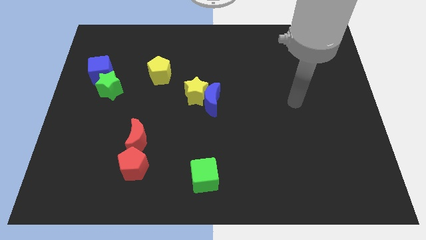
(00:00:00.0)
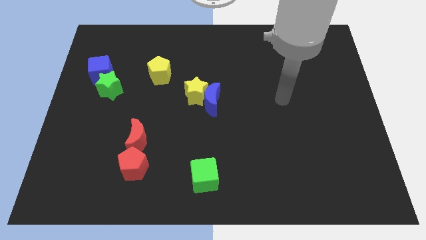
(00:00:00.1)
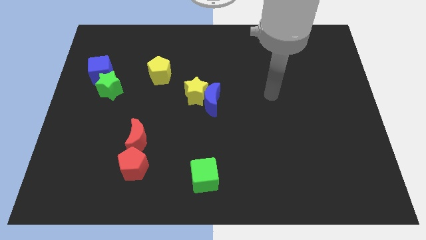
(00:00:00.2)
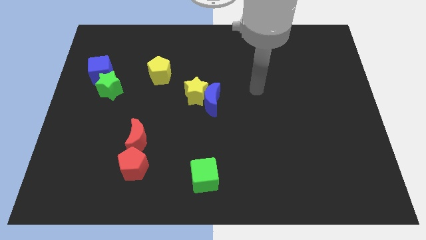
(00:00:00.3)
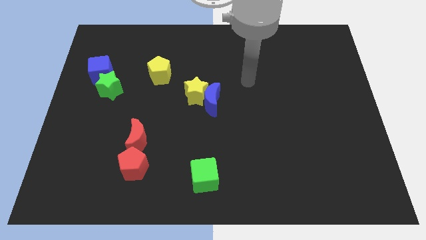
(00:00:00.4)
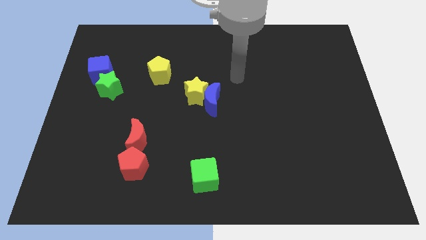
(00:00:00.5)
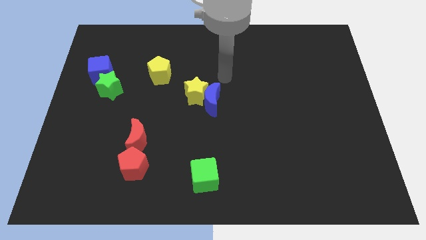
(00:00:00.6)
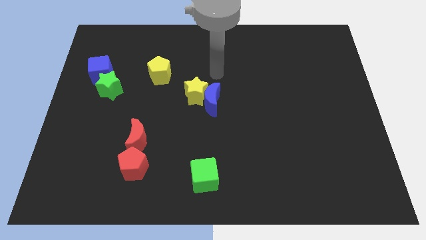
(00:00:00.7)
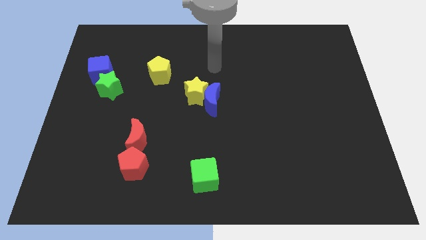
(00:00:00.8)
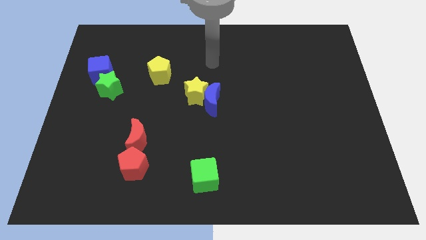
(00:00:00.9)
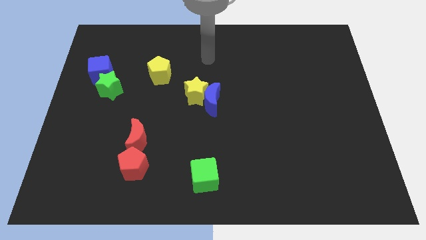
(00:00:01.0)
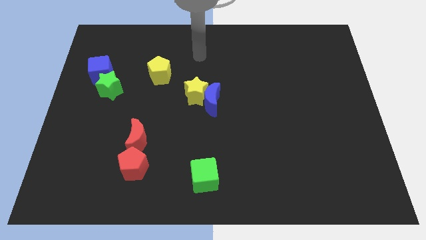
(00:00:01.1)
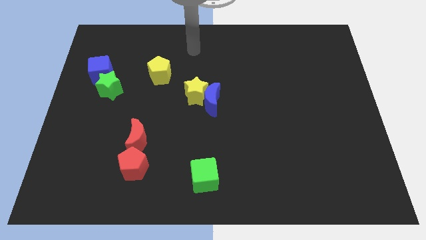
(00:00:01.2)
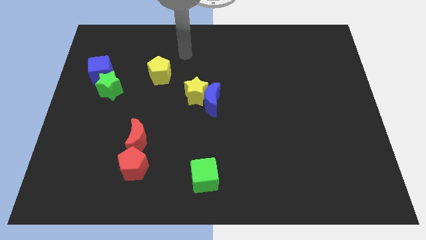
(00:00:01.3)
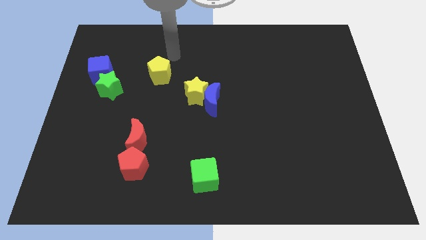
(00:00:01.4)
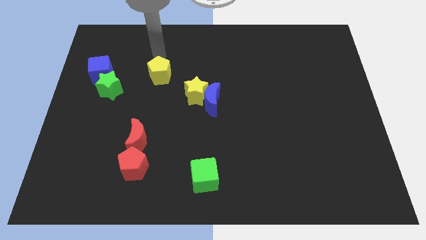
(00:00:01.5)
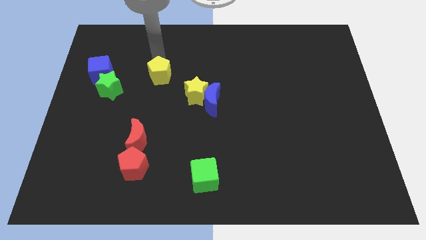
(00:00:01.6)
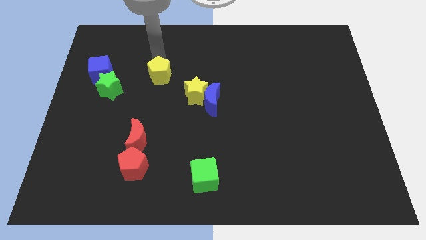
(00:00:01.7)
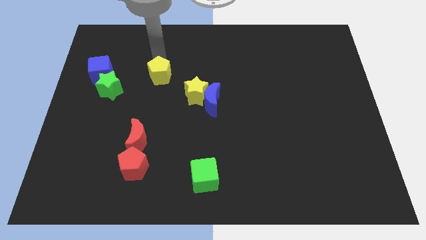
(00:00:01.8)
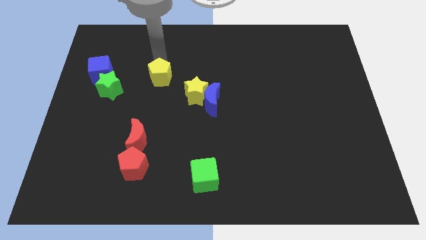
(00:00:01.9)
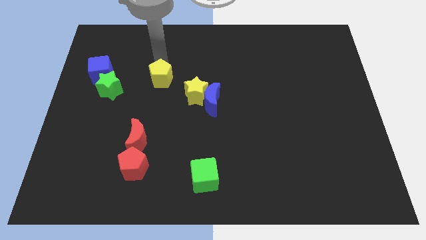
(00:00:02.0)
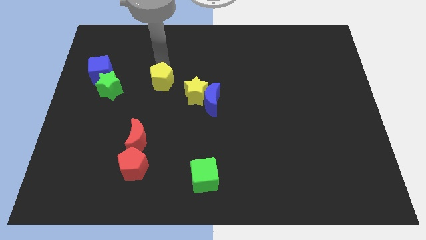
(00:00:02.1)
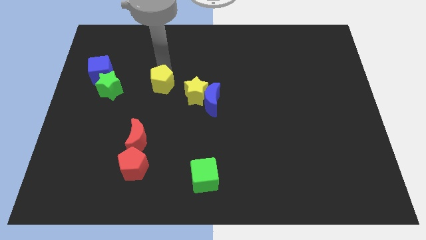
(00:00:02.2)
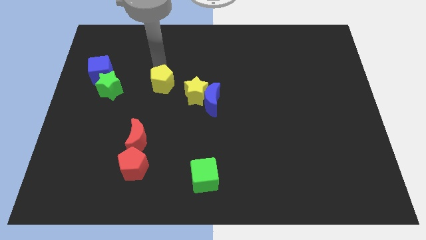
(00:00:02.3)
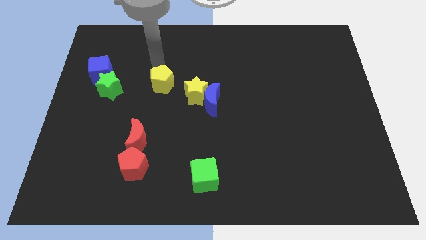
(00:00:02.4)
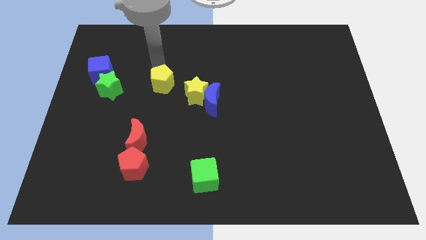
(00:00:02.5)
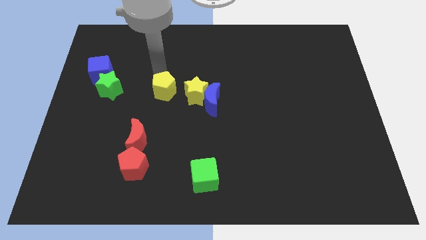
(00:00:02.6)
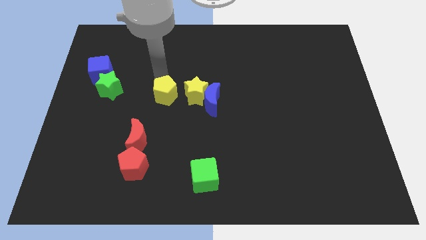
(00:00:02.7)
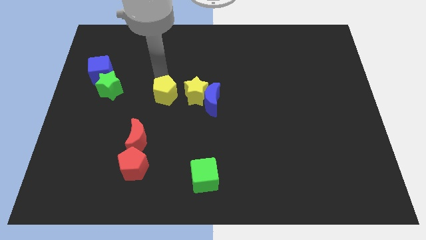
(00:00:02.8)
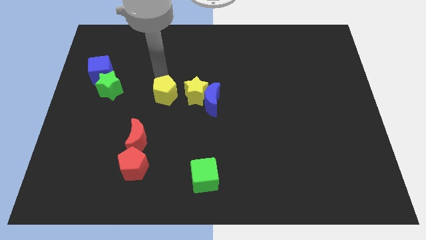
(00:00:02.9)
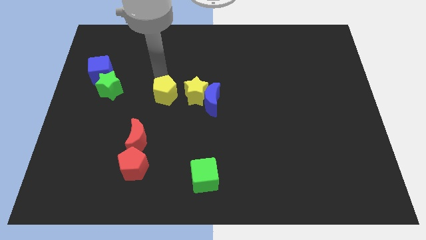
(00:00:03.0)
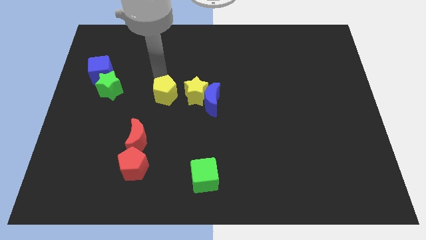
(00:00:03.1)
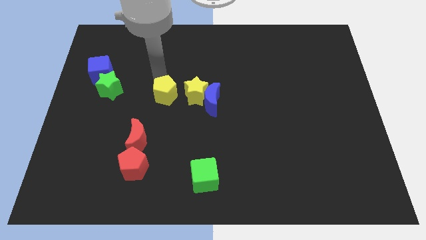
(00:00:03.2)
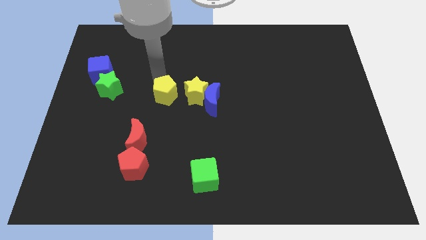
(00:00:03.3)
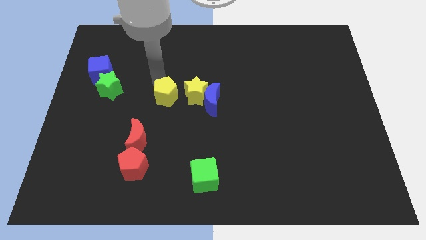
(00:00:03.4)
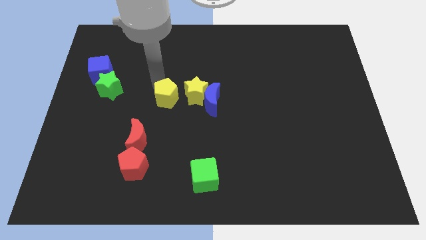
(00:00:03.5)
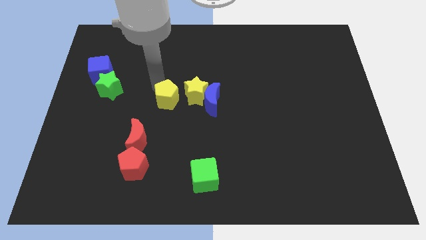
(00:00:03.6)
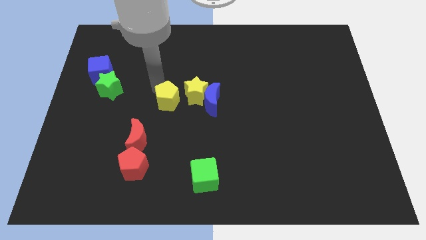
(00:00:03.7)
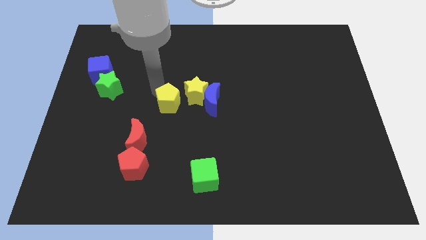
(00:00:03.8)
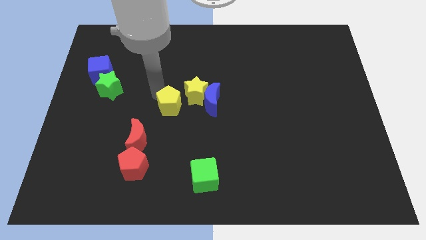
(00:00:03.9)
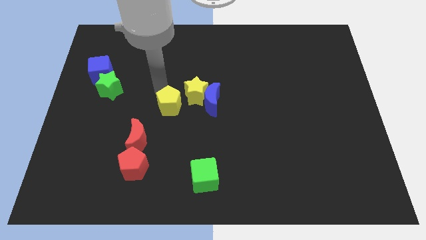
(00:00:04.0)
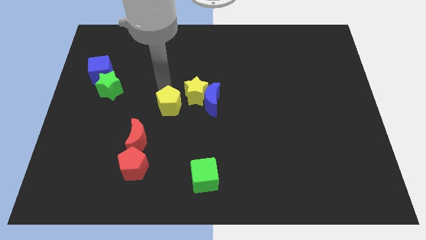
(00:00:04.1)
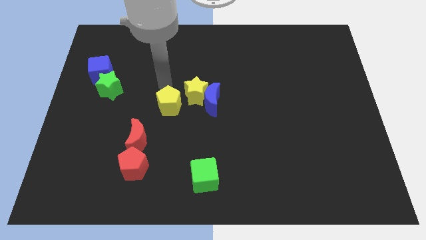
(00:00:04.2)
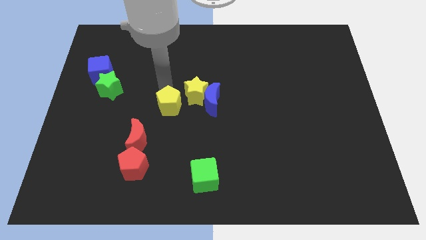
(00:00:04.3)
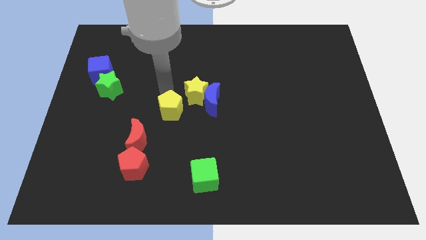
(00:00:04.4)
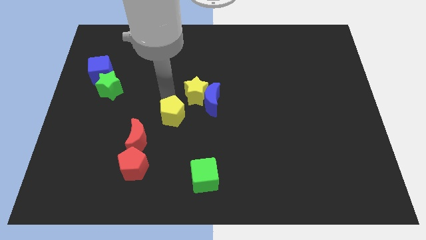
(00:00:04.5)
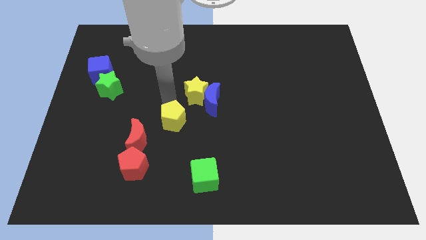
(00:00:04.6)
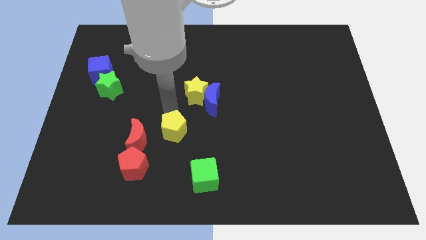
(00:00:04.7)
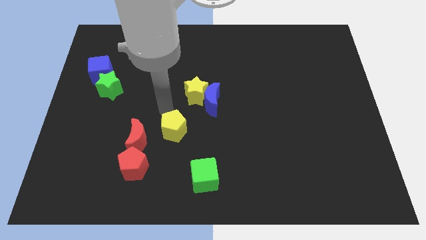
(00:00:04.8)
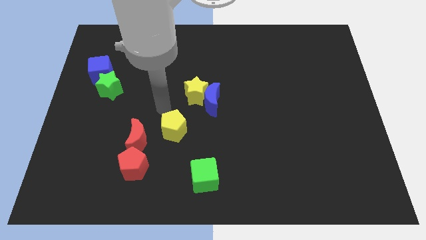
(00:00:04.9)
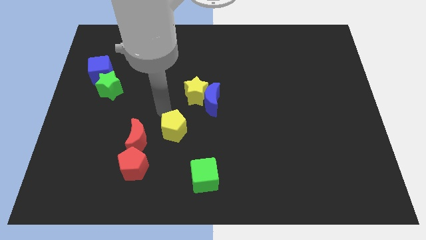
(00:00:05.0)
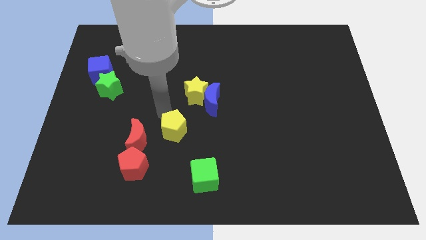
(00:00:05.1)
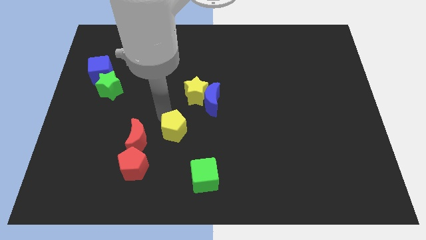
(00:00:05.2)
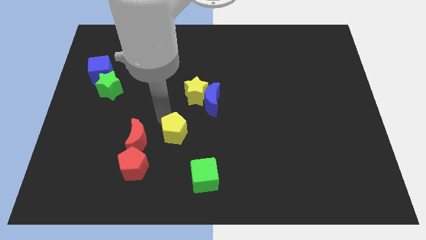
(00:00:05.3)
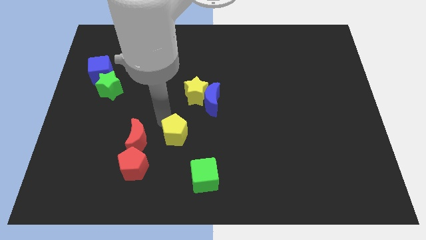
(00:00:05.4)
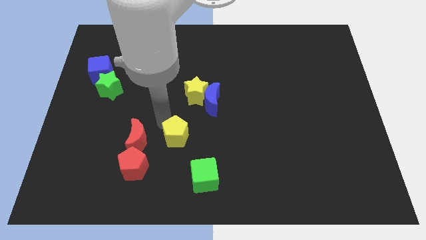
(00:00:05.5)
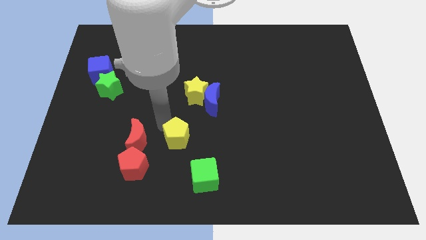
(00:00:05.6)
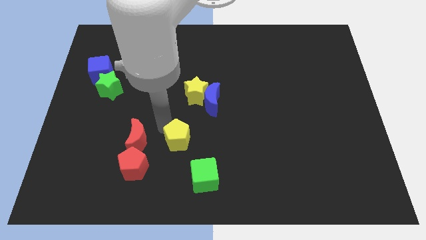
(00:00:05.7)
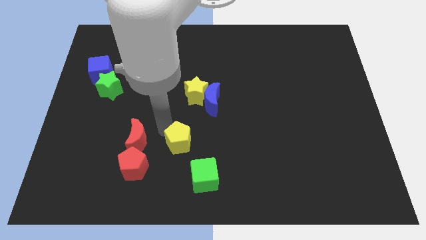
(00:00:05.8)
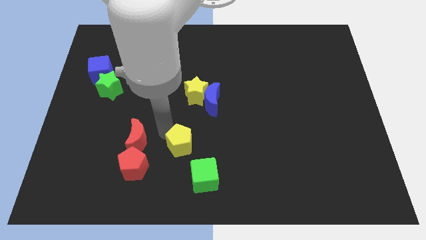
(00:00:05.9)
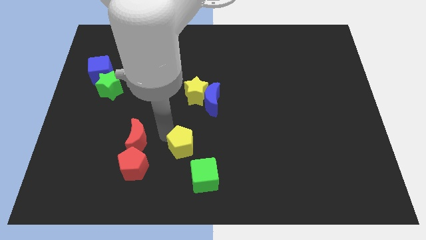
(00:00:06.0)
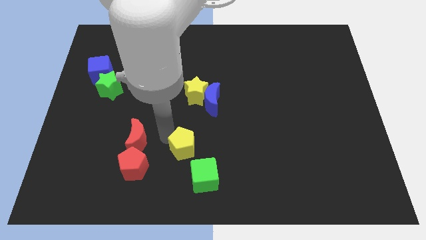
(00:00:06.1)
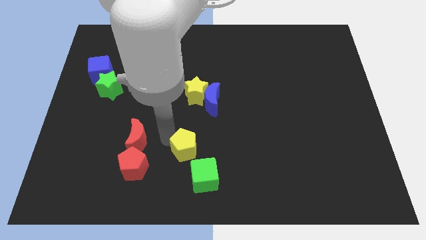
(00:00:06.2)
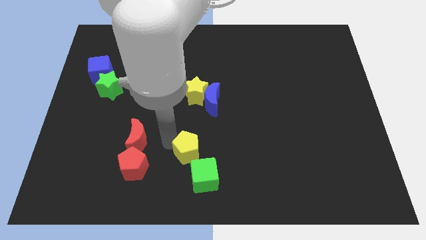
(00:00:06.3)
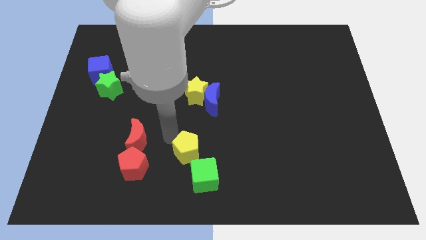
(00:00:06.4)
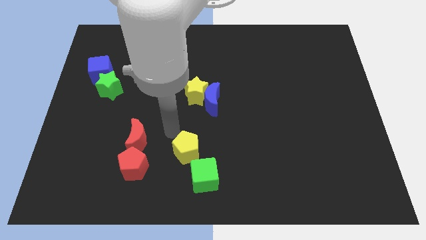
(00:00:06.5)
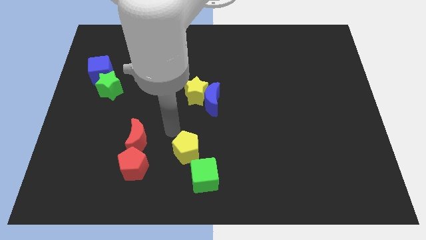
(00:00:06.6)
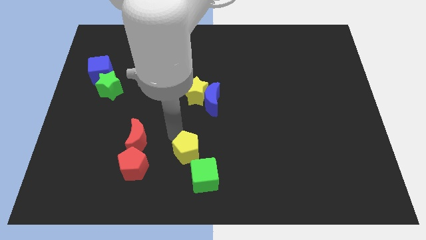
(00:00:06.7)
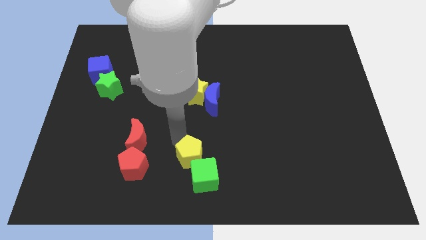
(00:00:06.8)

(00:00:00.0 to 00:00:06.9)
slide the yellow pentagon to the green cube
